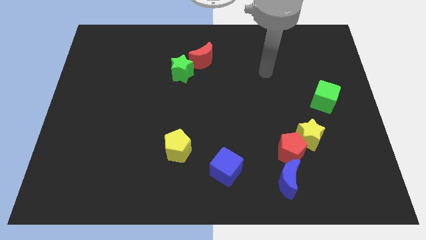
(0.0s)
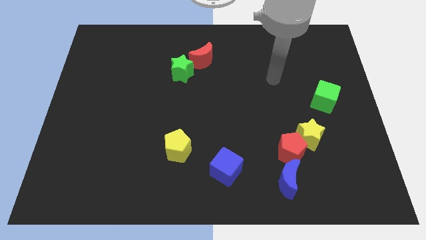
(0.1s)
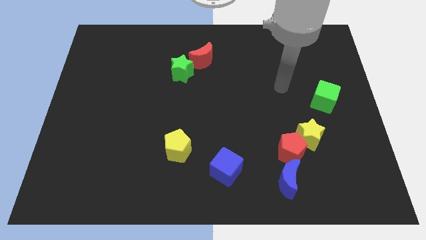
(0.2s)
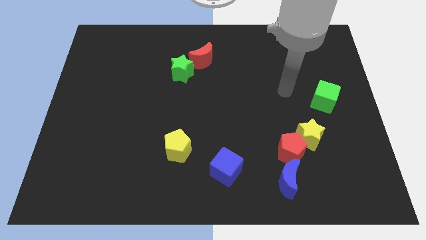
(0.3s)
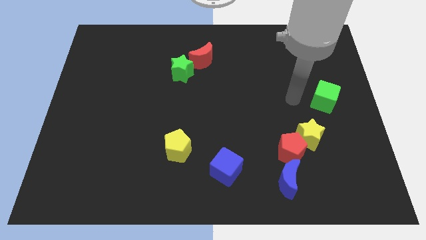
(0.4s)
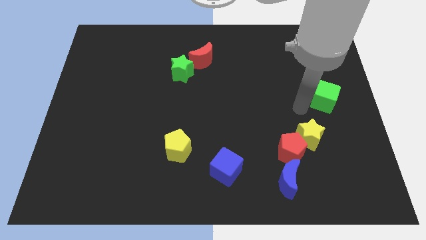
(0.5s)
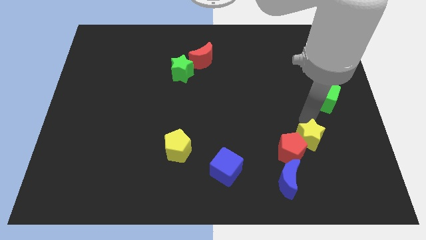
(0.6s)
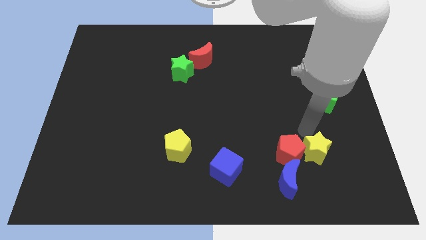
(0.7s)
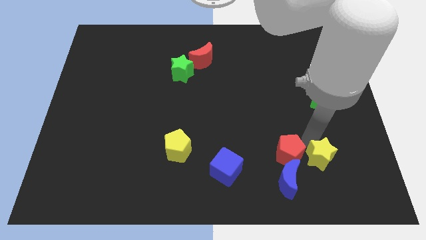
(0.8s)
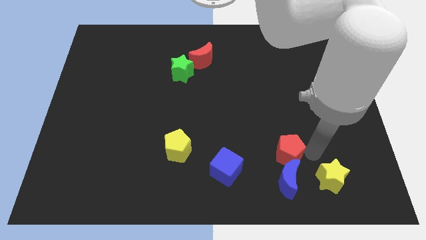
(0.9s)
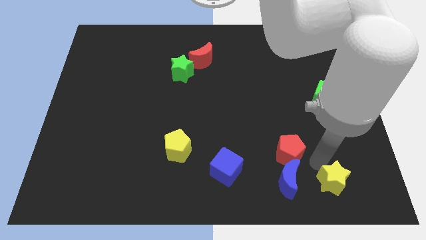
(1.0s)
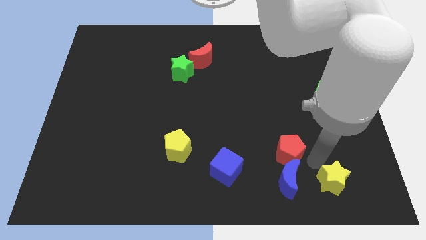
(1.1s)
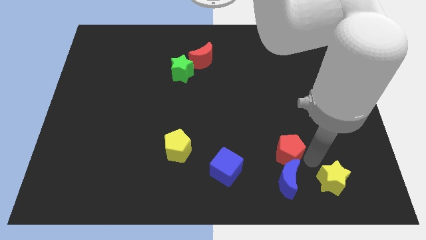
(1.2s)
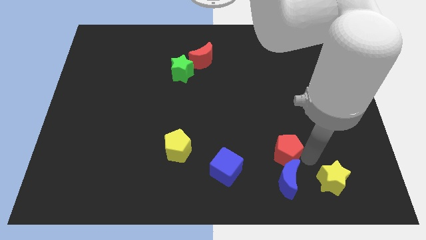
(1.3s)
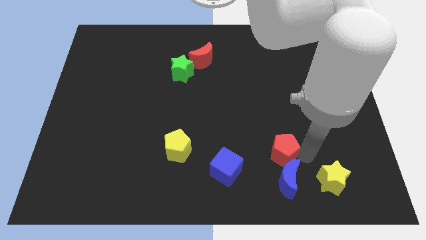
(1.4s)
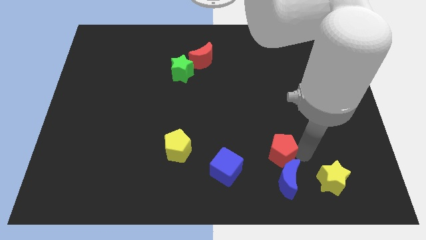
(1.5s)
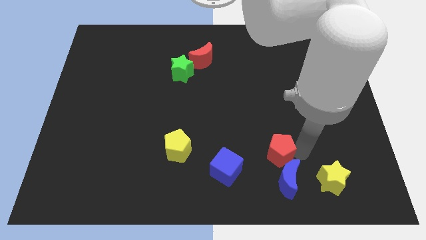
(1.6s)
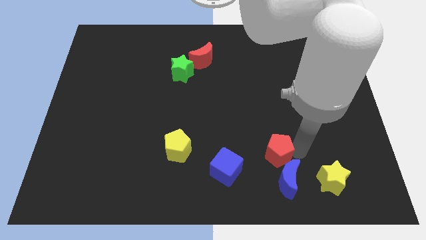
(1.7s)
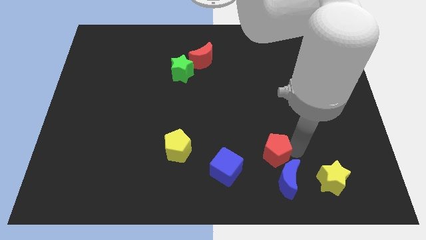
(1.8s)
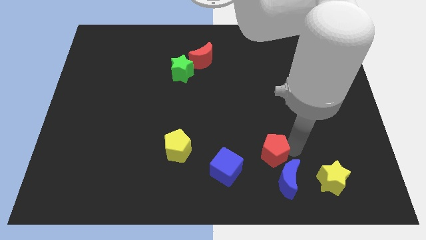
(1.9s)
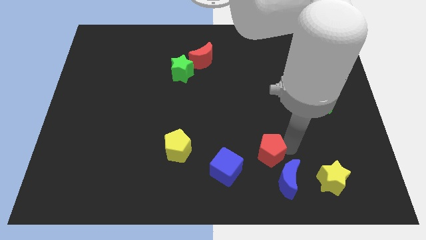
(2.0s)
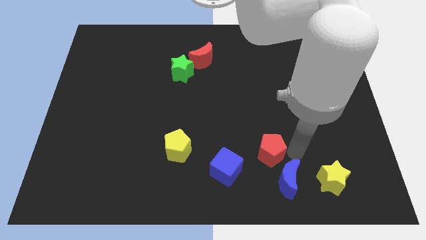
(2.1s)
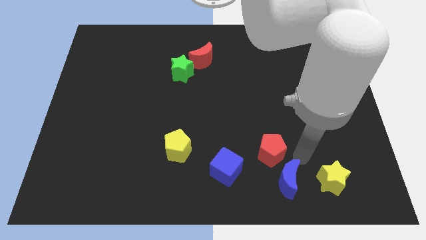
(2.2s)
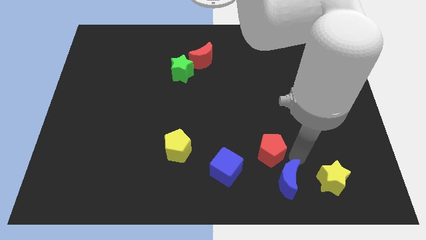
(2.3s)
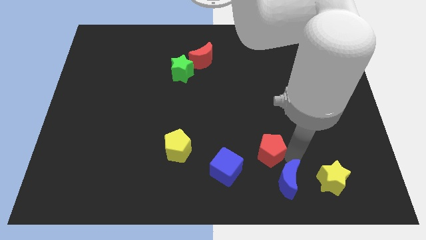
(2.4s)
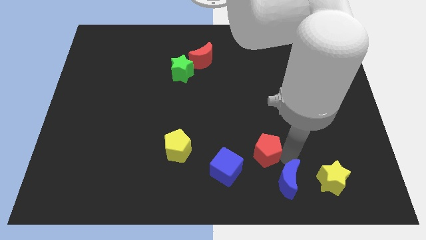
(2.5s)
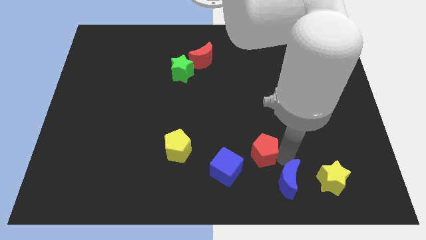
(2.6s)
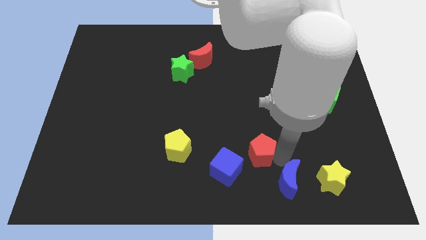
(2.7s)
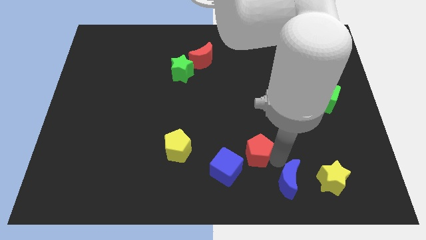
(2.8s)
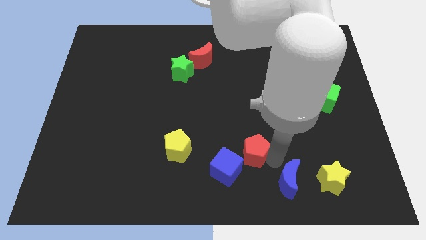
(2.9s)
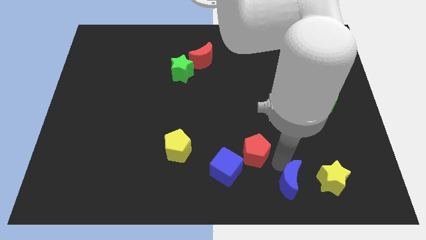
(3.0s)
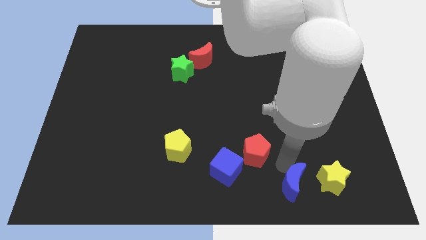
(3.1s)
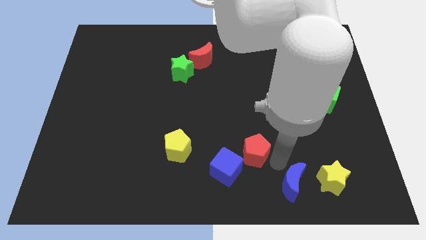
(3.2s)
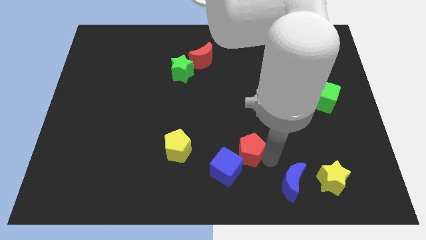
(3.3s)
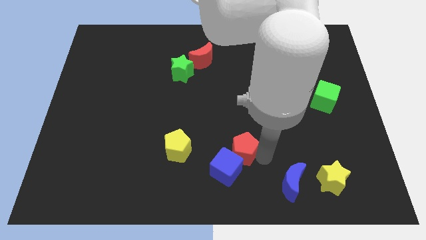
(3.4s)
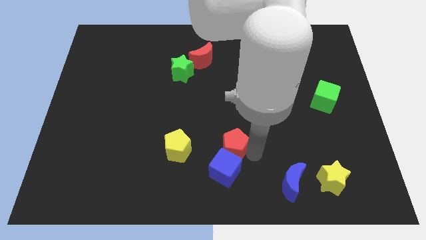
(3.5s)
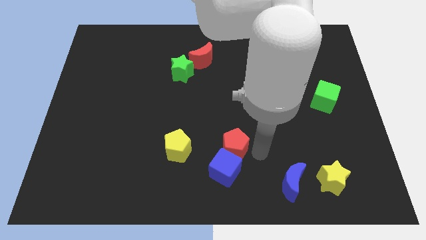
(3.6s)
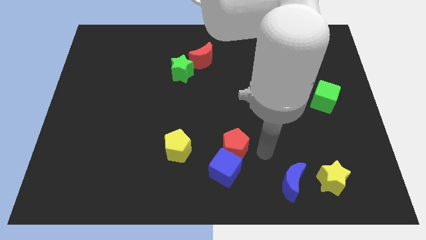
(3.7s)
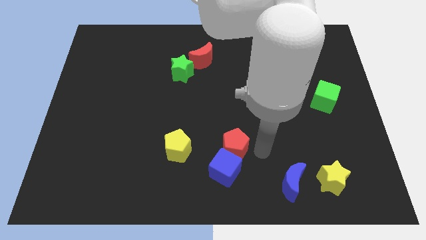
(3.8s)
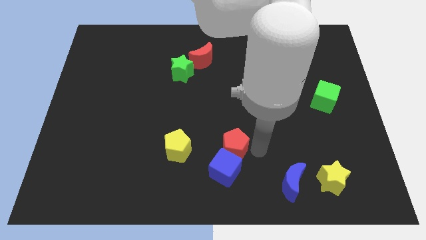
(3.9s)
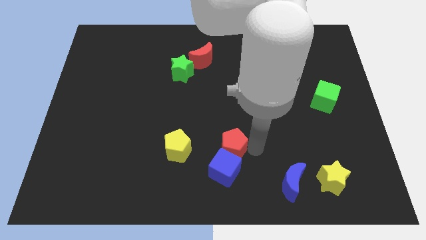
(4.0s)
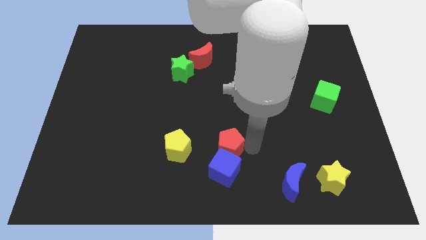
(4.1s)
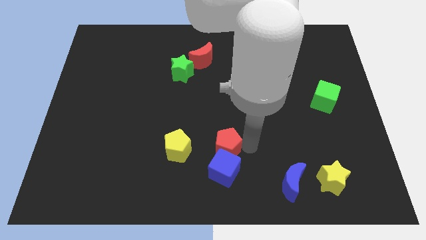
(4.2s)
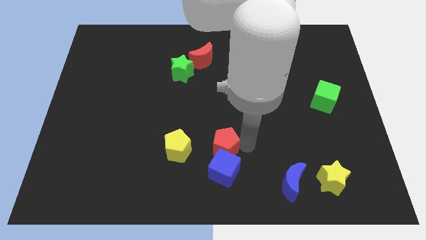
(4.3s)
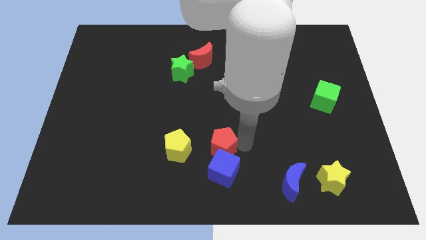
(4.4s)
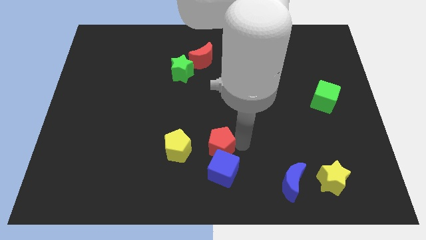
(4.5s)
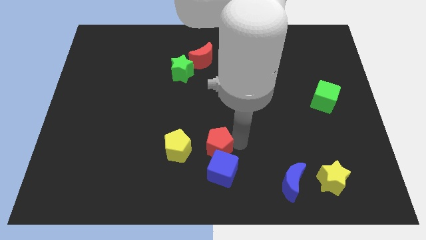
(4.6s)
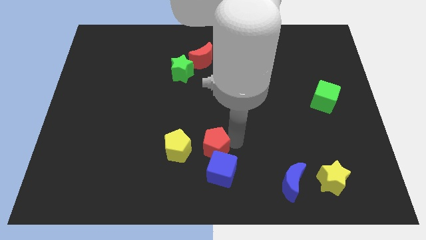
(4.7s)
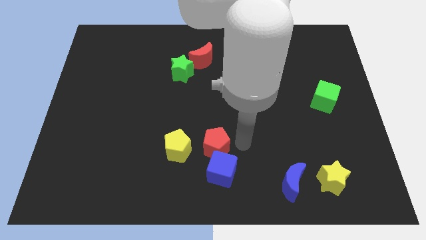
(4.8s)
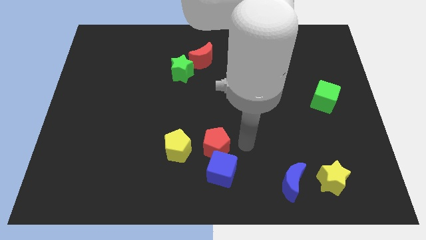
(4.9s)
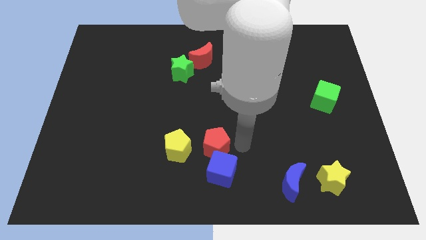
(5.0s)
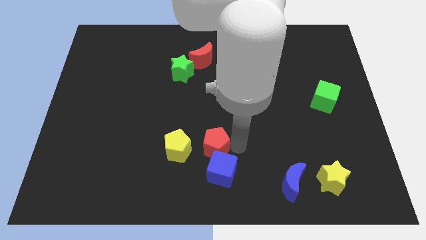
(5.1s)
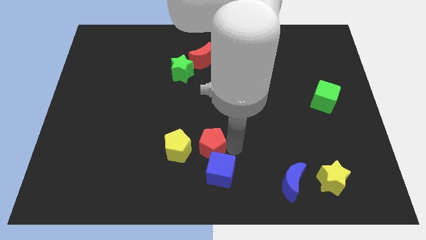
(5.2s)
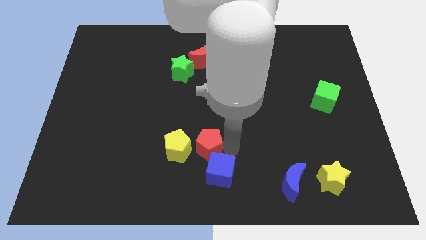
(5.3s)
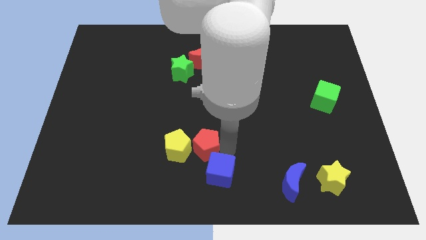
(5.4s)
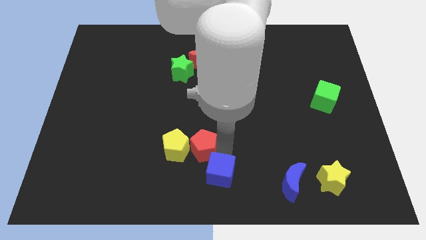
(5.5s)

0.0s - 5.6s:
move the red pentagon to the yellow pentagon

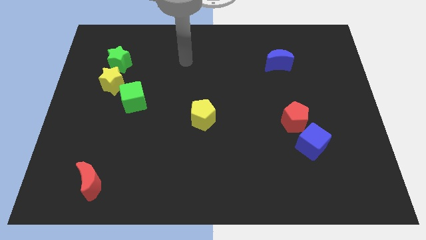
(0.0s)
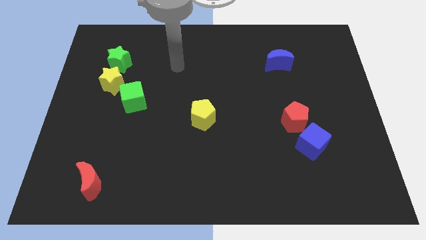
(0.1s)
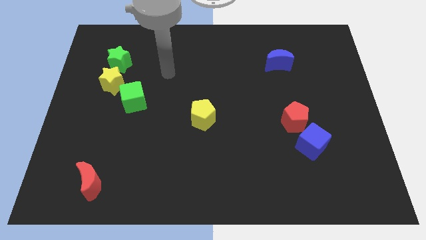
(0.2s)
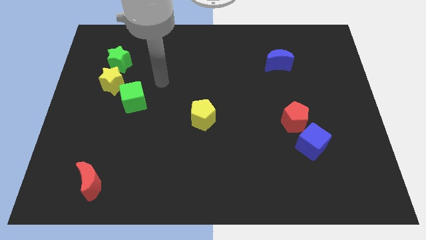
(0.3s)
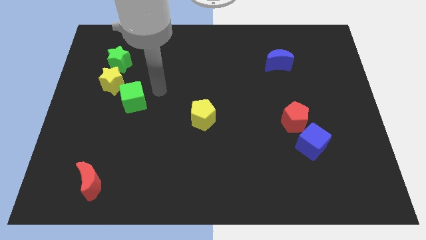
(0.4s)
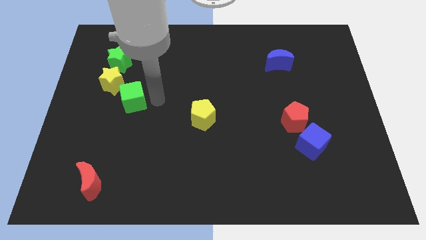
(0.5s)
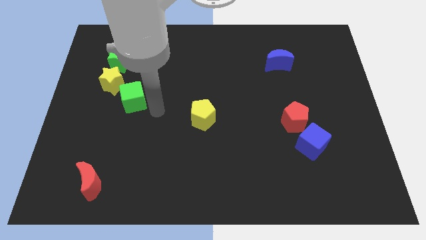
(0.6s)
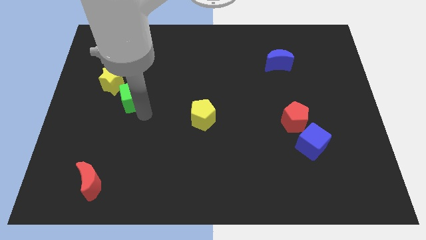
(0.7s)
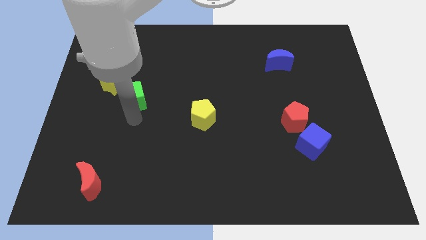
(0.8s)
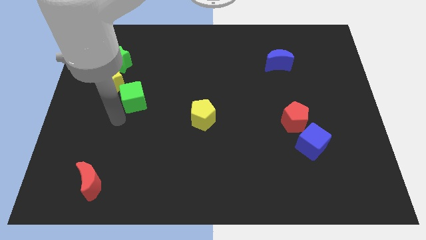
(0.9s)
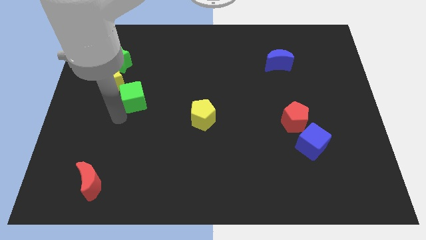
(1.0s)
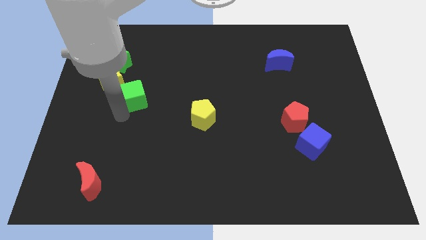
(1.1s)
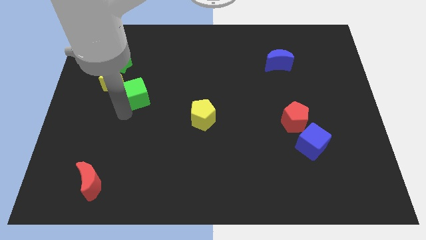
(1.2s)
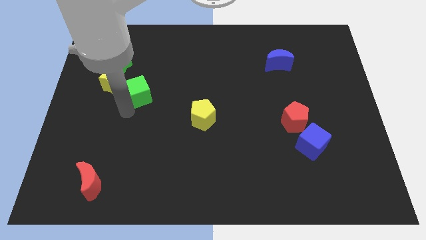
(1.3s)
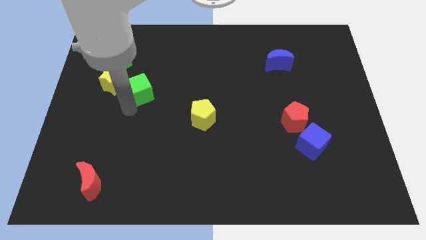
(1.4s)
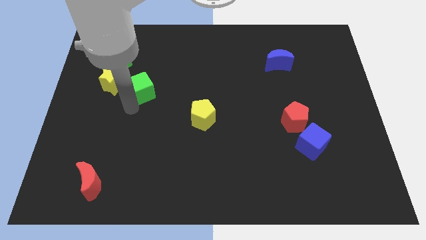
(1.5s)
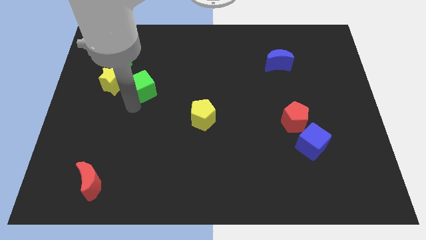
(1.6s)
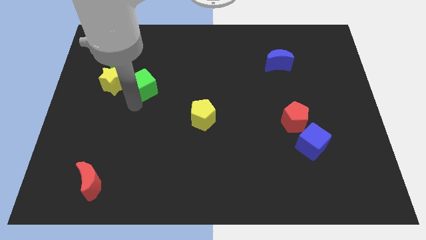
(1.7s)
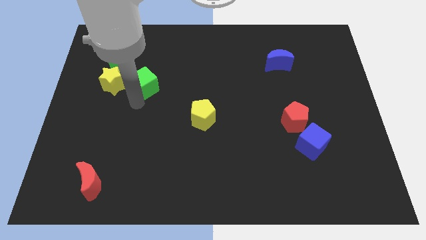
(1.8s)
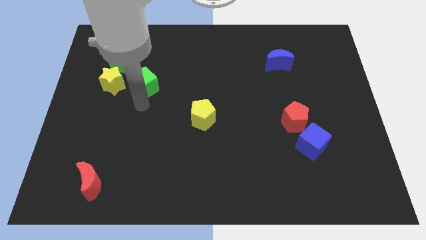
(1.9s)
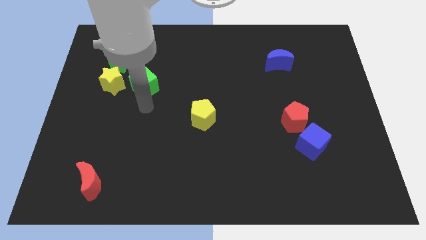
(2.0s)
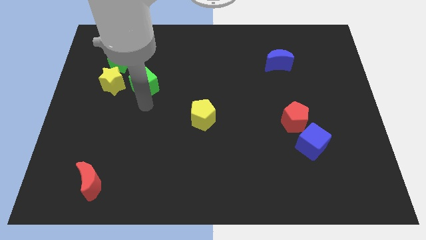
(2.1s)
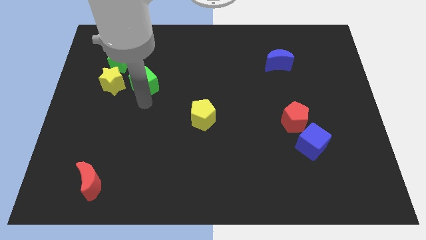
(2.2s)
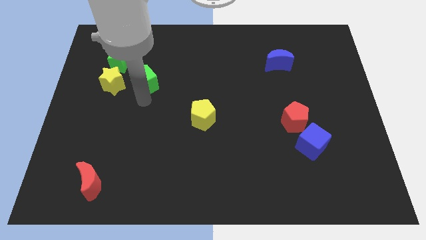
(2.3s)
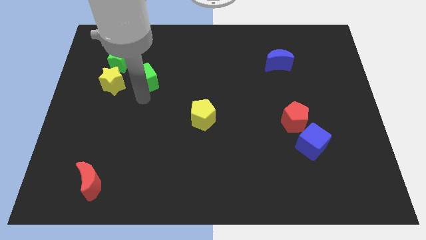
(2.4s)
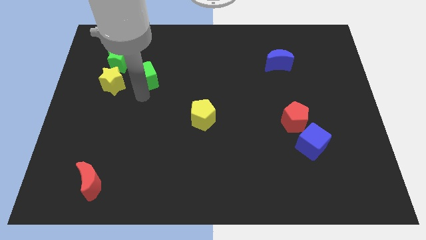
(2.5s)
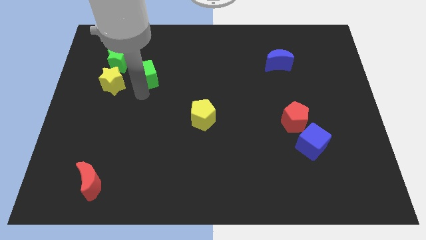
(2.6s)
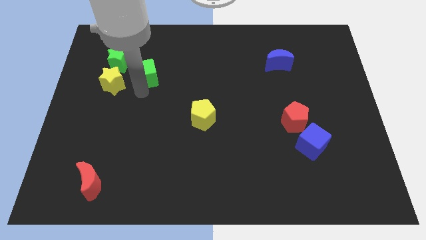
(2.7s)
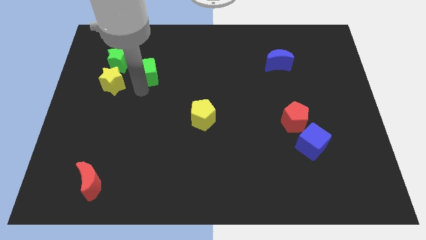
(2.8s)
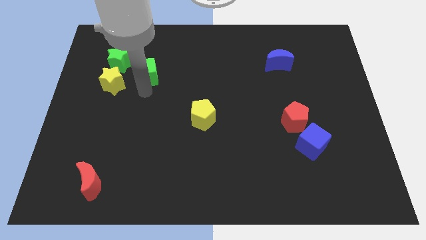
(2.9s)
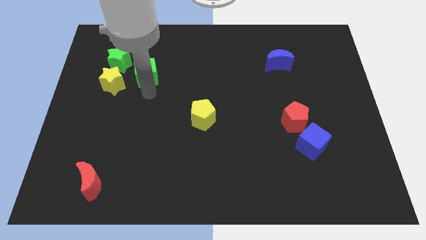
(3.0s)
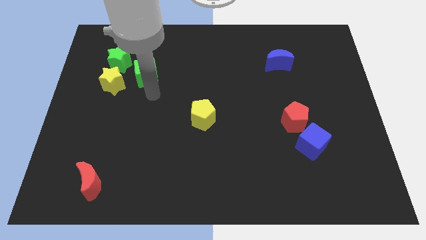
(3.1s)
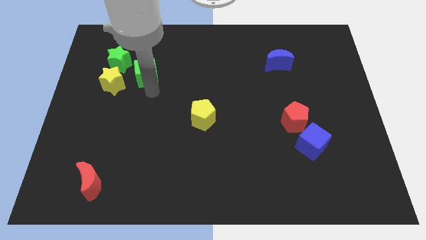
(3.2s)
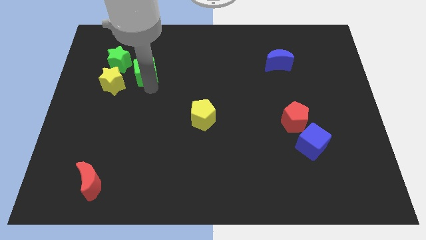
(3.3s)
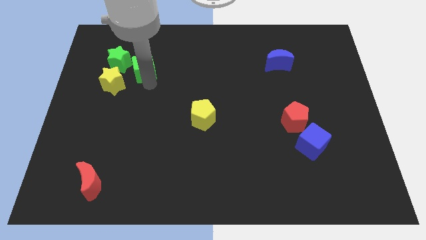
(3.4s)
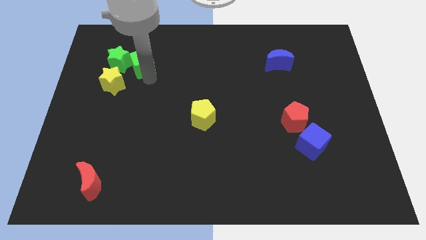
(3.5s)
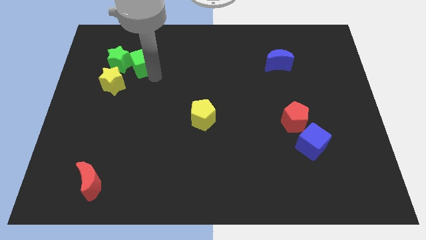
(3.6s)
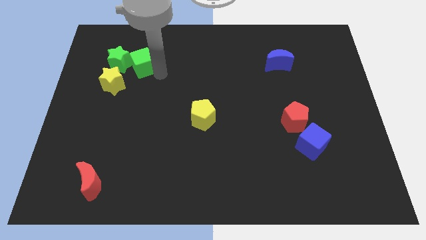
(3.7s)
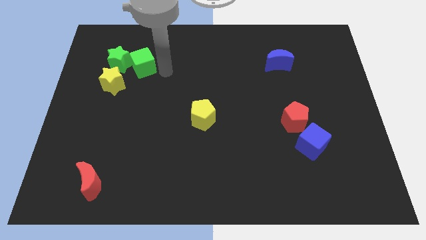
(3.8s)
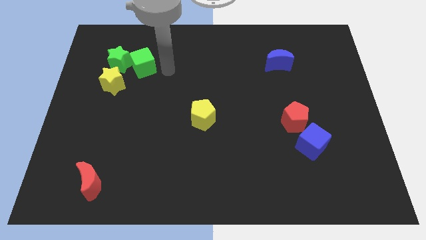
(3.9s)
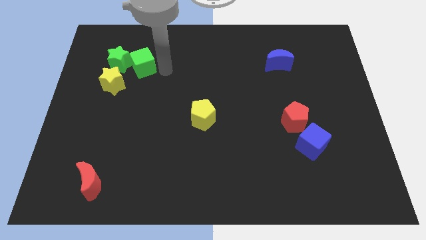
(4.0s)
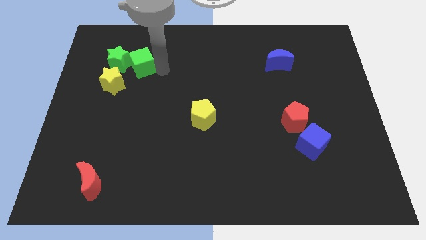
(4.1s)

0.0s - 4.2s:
push the green cube next to the green star
